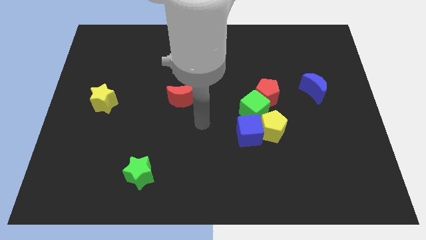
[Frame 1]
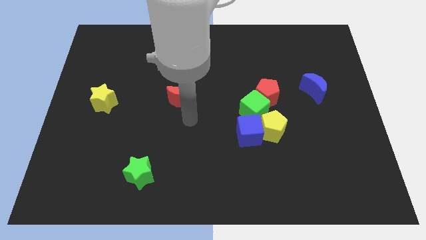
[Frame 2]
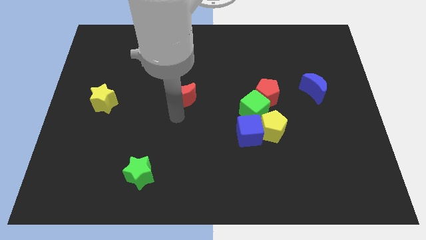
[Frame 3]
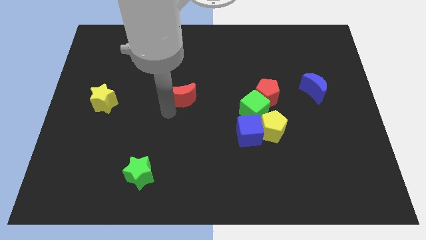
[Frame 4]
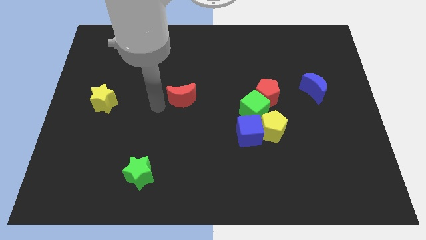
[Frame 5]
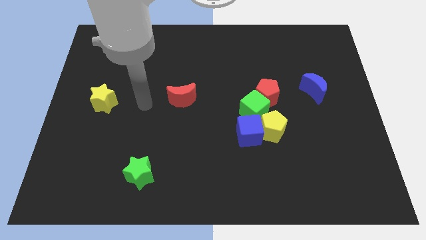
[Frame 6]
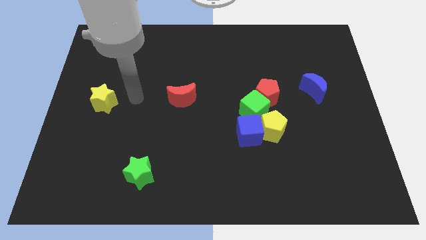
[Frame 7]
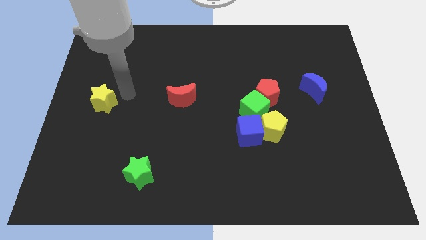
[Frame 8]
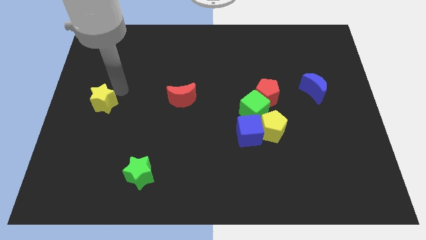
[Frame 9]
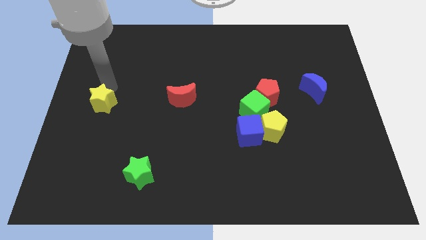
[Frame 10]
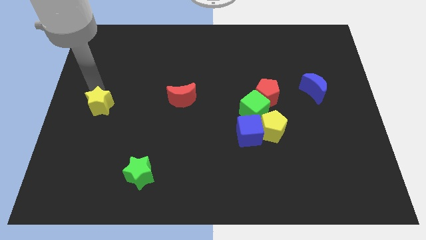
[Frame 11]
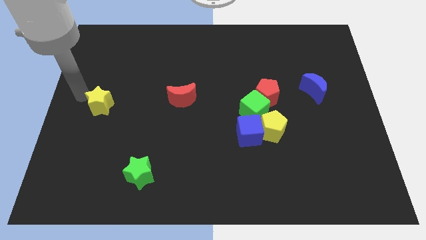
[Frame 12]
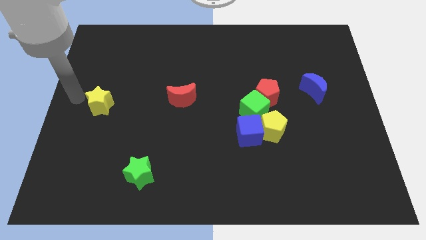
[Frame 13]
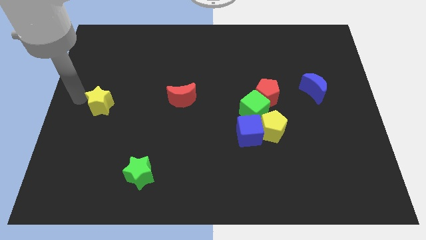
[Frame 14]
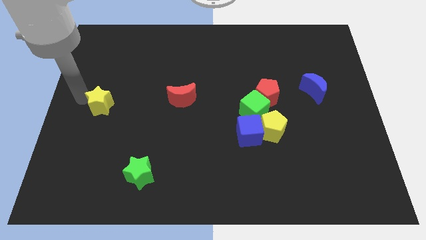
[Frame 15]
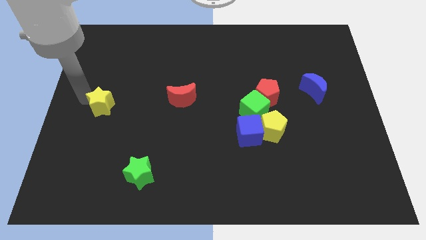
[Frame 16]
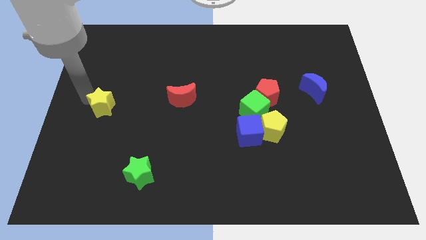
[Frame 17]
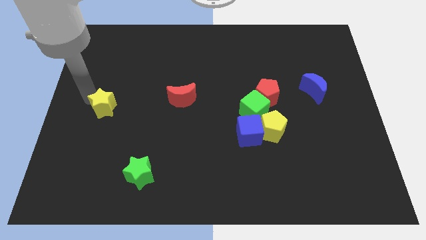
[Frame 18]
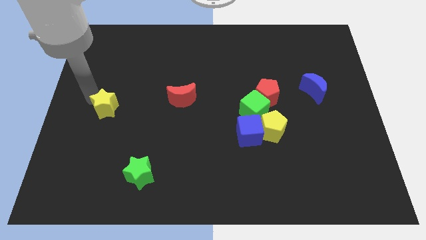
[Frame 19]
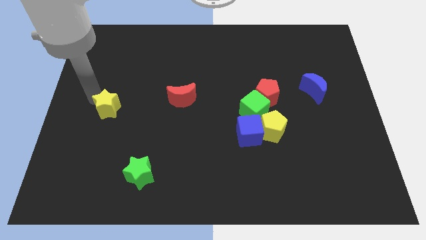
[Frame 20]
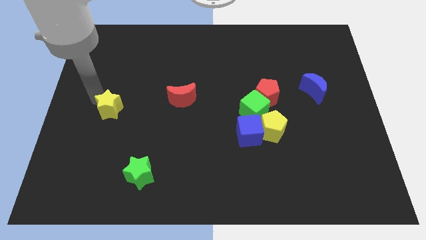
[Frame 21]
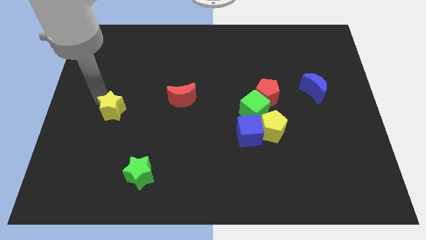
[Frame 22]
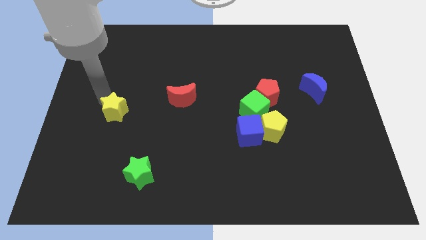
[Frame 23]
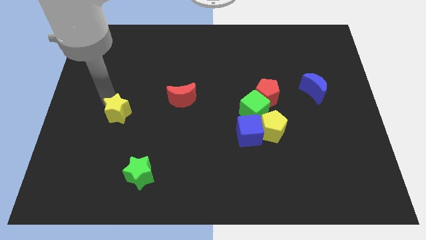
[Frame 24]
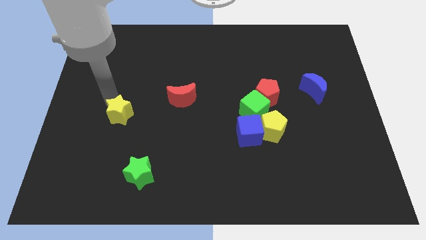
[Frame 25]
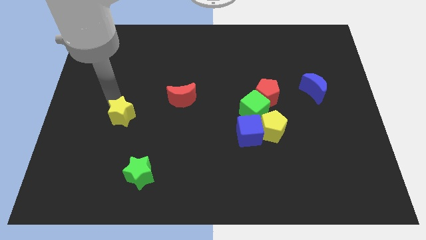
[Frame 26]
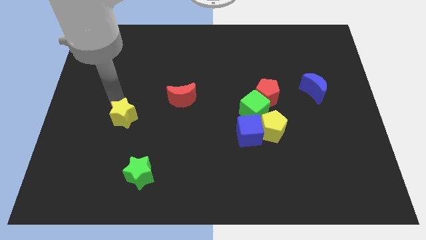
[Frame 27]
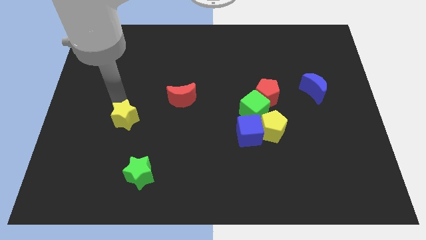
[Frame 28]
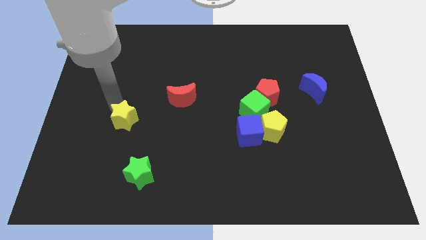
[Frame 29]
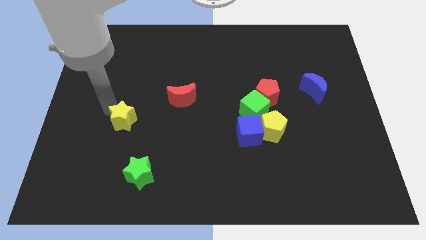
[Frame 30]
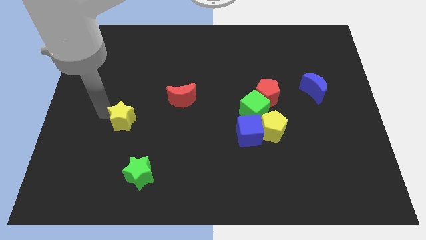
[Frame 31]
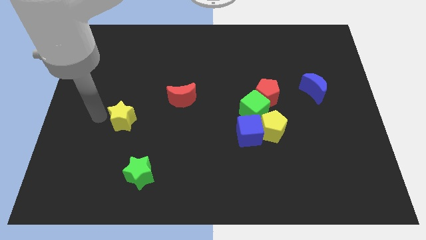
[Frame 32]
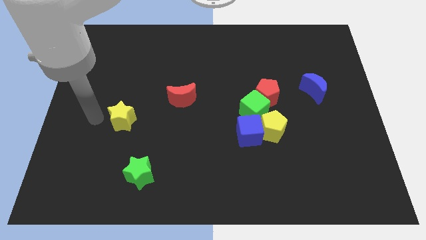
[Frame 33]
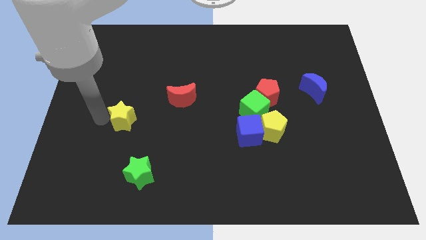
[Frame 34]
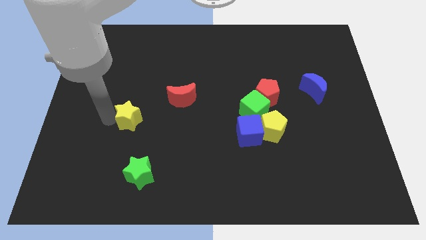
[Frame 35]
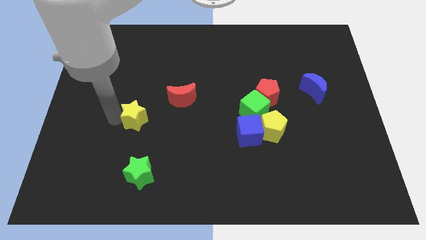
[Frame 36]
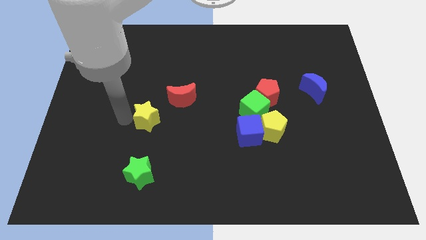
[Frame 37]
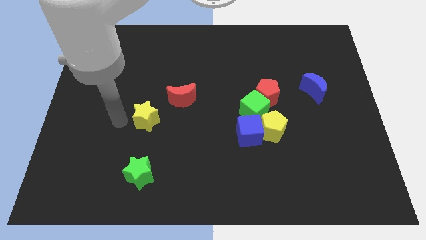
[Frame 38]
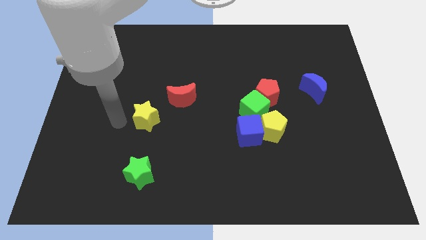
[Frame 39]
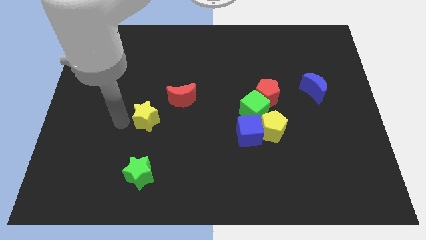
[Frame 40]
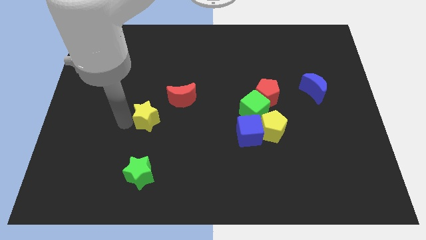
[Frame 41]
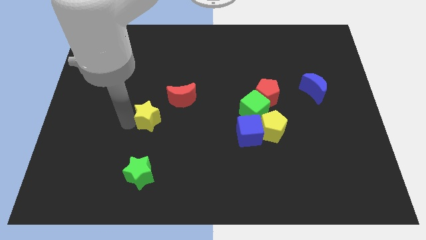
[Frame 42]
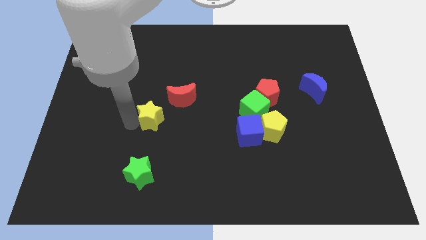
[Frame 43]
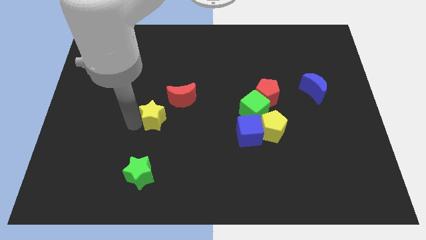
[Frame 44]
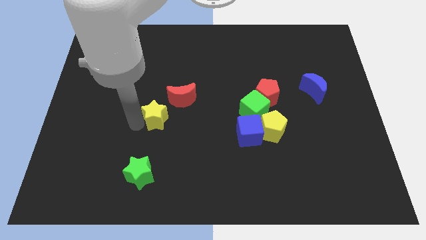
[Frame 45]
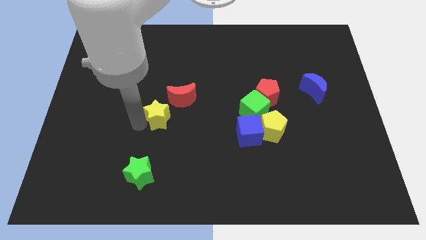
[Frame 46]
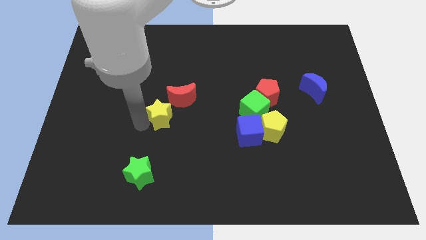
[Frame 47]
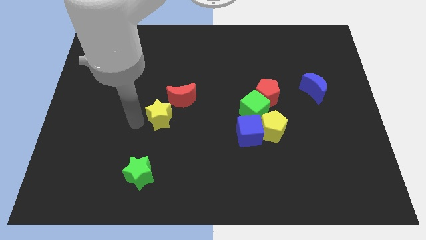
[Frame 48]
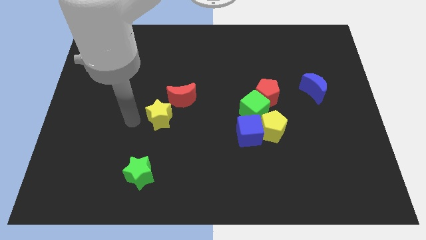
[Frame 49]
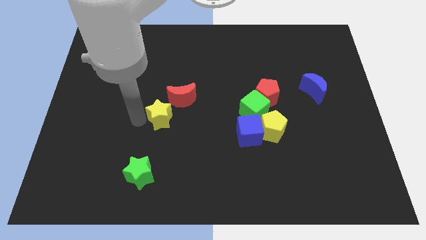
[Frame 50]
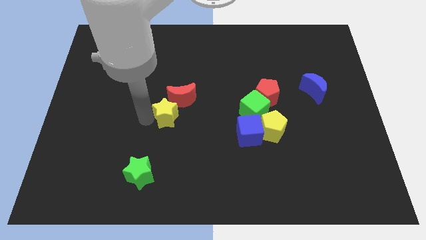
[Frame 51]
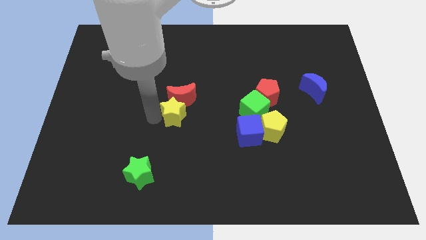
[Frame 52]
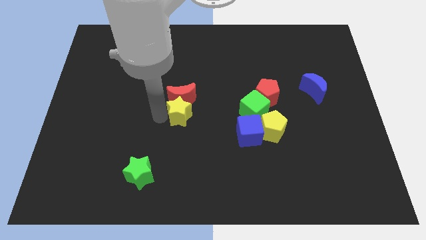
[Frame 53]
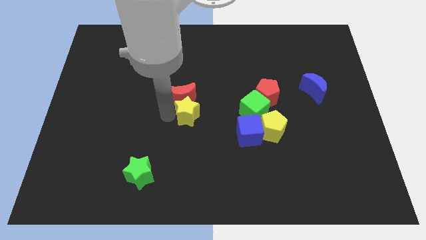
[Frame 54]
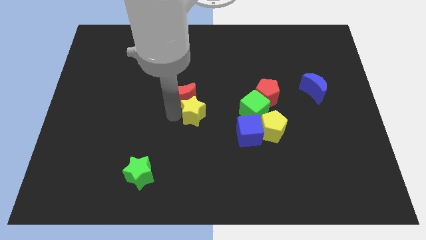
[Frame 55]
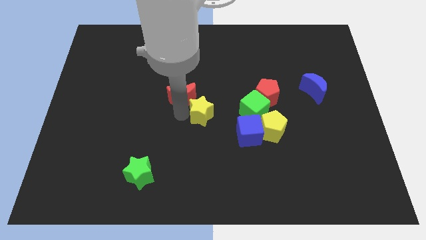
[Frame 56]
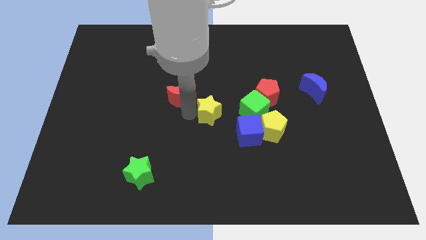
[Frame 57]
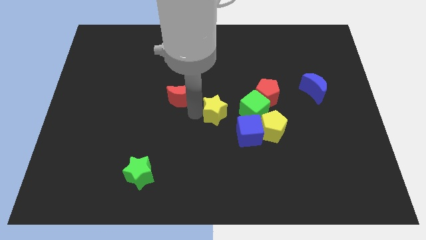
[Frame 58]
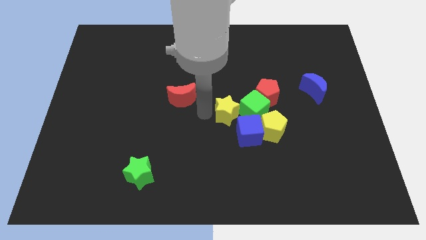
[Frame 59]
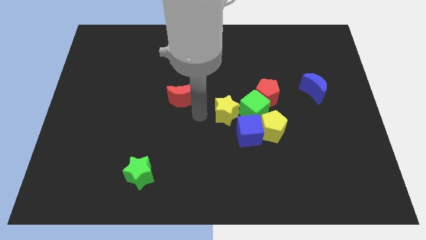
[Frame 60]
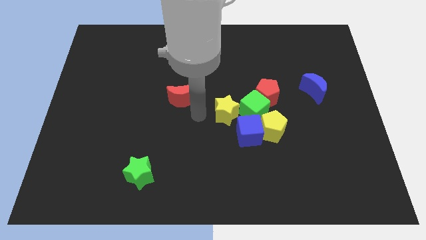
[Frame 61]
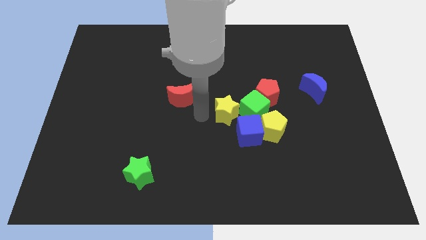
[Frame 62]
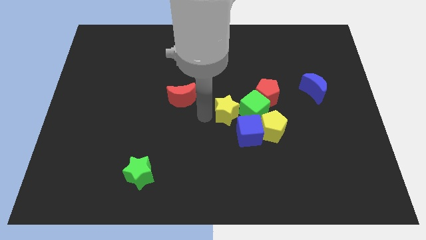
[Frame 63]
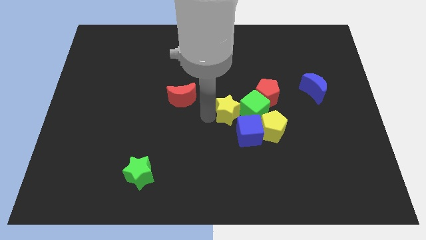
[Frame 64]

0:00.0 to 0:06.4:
slide the yellow star next to the green cube
